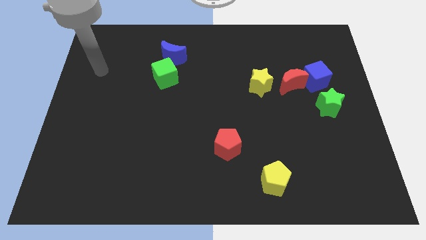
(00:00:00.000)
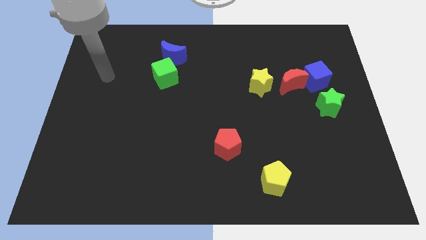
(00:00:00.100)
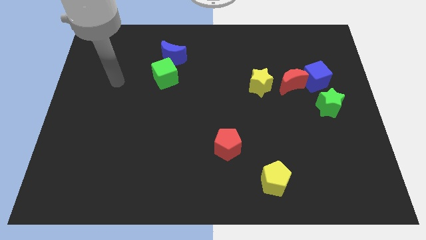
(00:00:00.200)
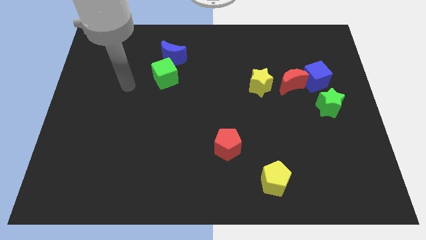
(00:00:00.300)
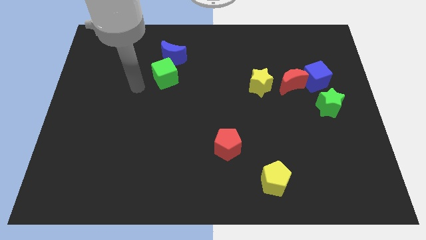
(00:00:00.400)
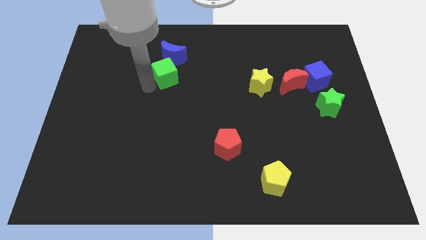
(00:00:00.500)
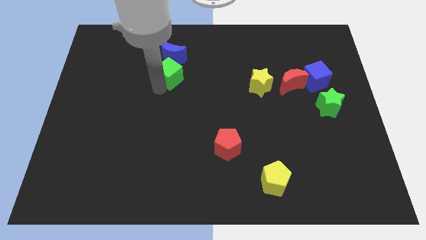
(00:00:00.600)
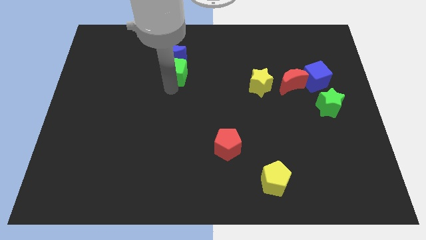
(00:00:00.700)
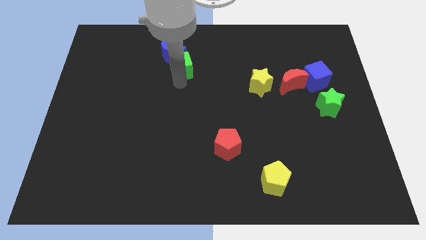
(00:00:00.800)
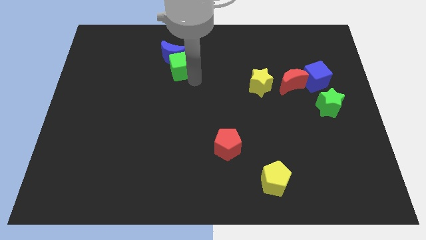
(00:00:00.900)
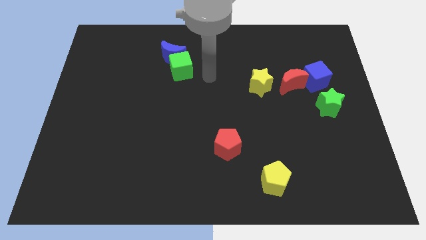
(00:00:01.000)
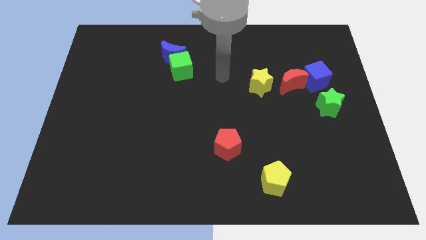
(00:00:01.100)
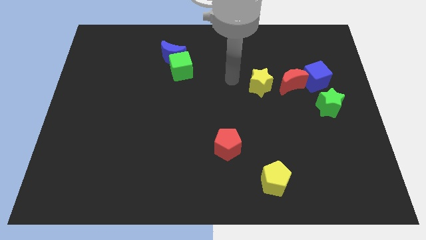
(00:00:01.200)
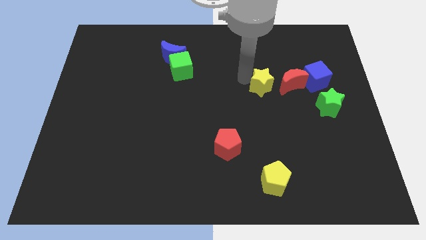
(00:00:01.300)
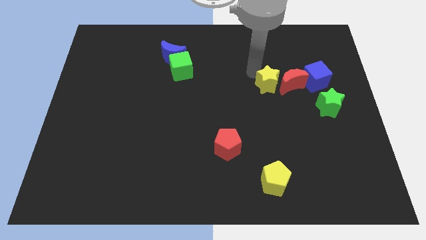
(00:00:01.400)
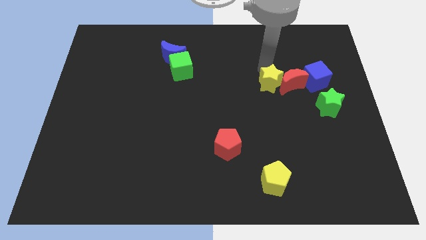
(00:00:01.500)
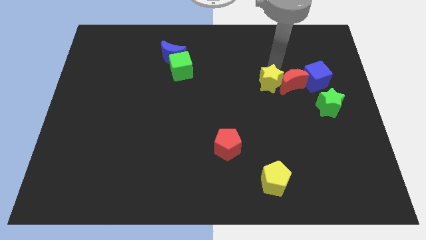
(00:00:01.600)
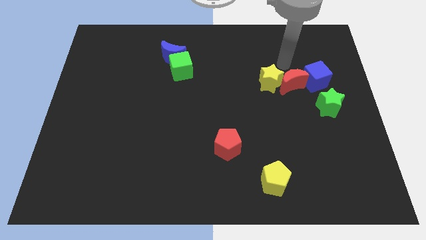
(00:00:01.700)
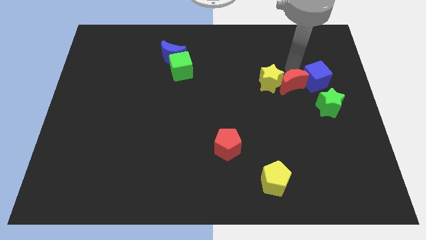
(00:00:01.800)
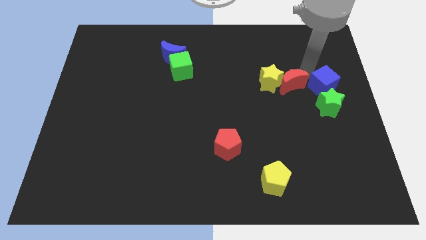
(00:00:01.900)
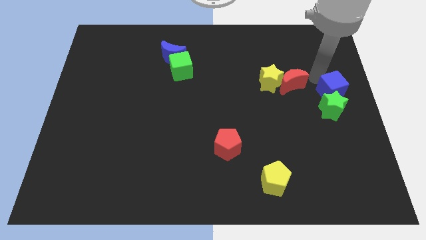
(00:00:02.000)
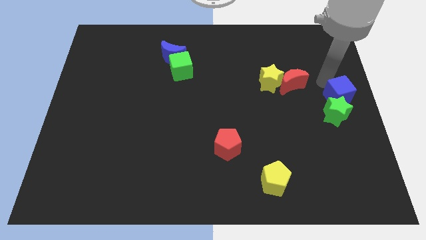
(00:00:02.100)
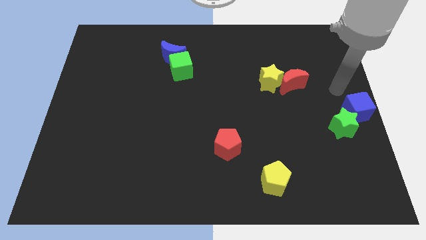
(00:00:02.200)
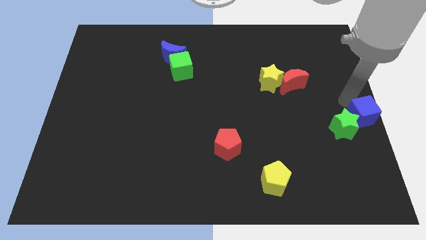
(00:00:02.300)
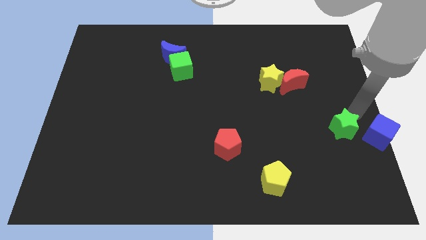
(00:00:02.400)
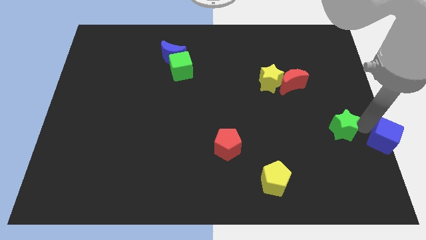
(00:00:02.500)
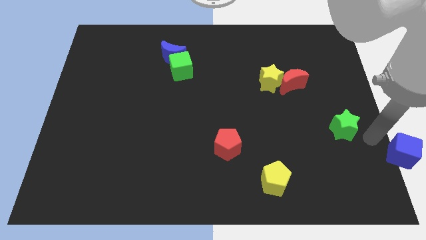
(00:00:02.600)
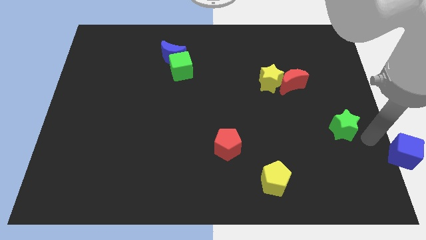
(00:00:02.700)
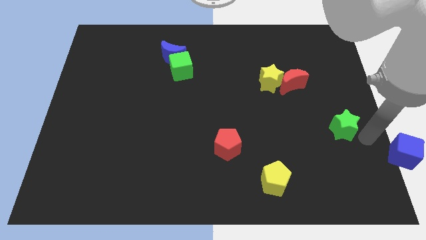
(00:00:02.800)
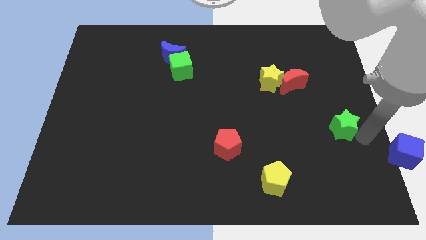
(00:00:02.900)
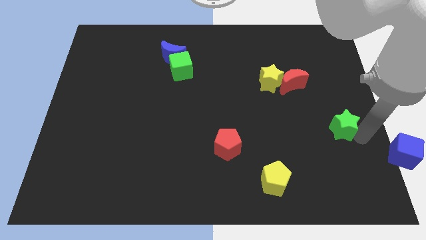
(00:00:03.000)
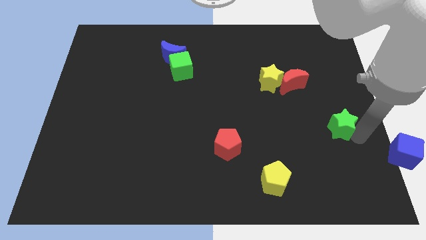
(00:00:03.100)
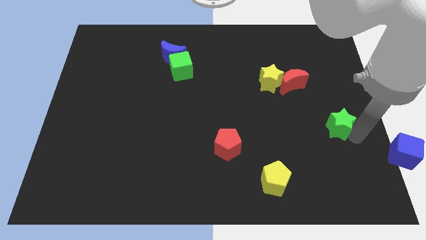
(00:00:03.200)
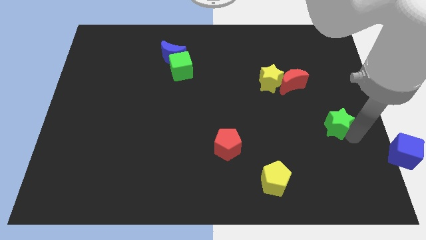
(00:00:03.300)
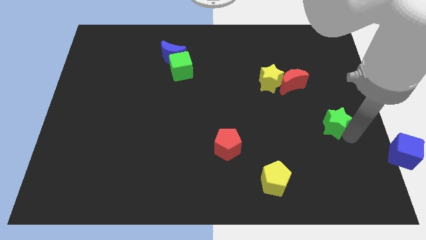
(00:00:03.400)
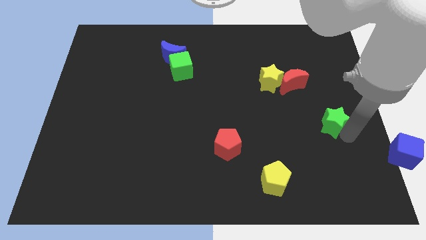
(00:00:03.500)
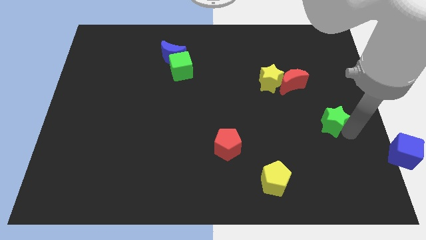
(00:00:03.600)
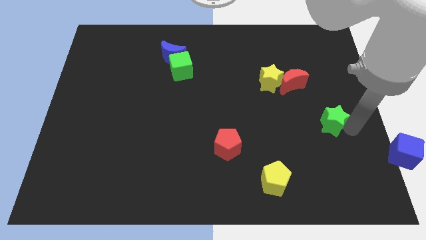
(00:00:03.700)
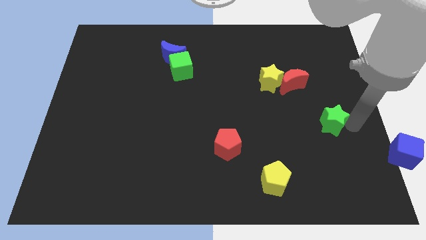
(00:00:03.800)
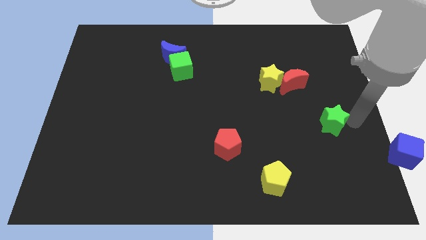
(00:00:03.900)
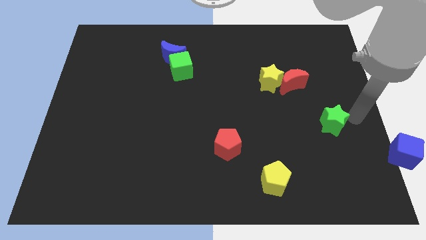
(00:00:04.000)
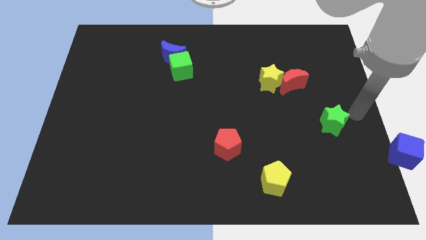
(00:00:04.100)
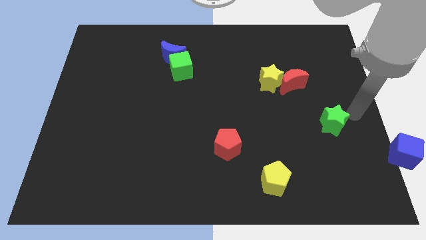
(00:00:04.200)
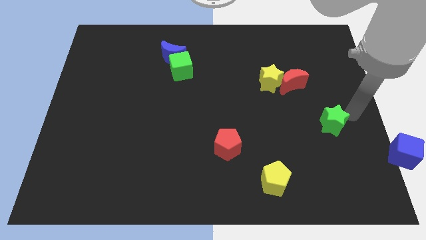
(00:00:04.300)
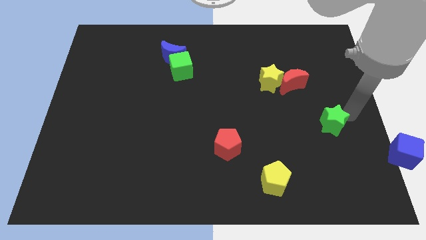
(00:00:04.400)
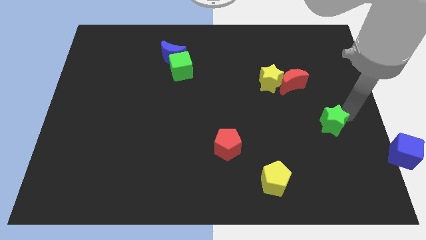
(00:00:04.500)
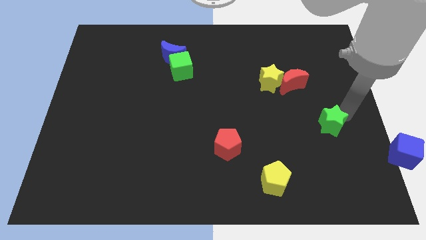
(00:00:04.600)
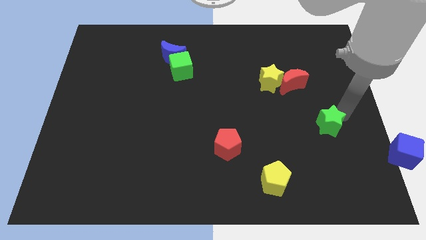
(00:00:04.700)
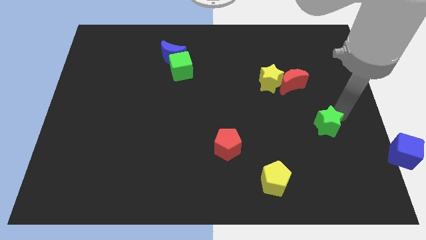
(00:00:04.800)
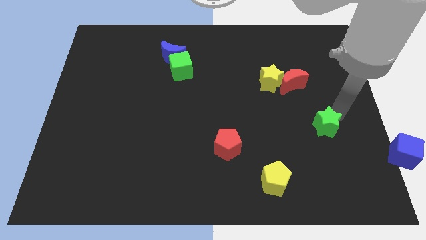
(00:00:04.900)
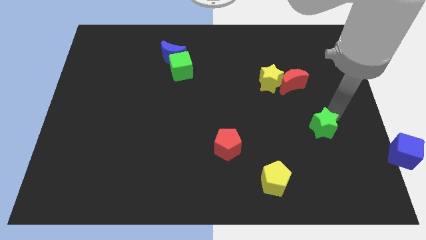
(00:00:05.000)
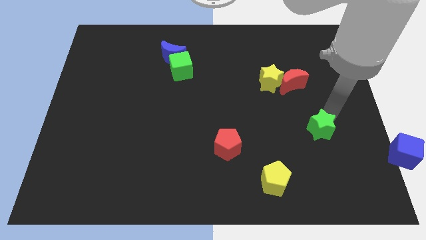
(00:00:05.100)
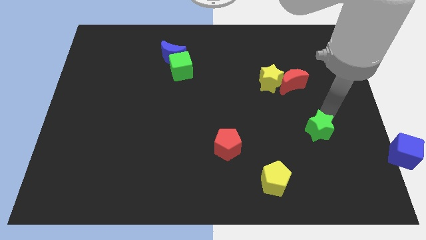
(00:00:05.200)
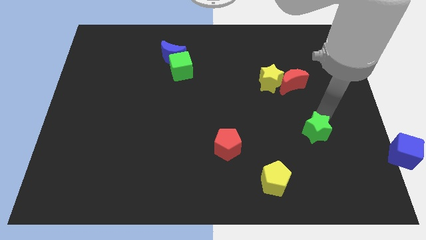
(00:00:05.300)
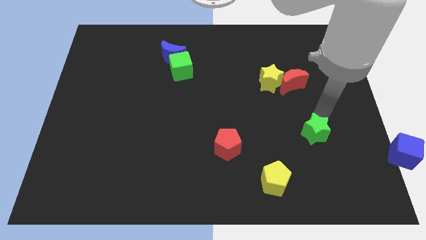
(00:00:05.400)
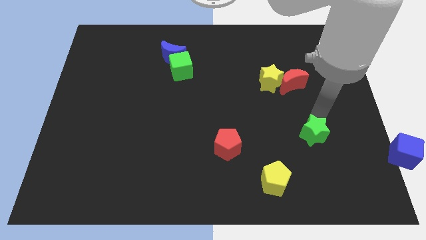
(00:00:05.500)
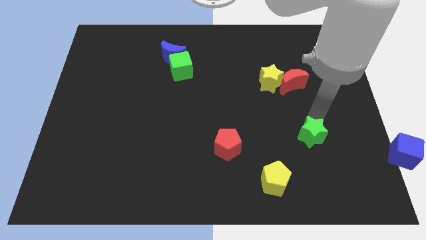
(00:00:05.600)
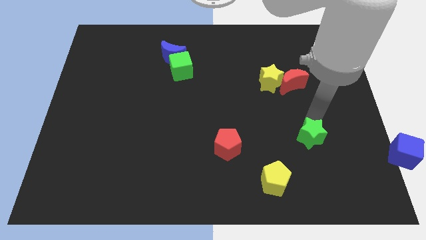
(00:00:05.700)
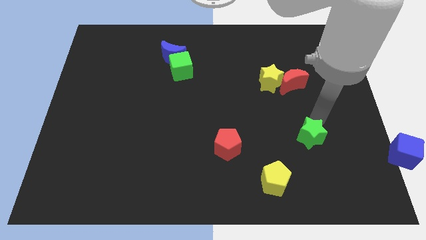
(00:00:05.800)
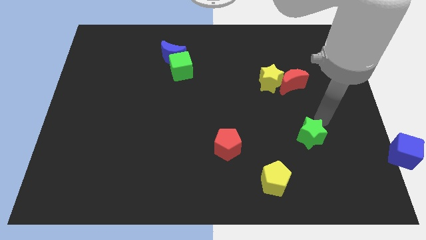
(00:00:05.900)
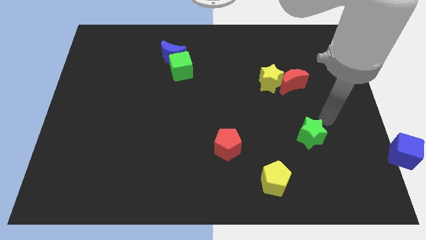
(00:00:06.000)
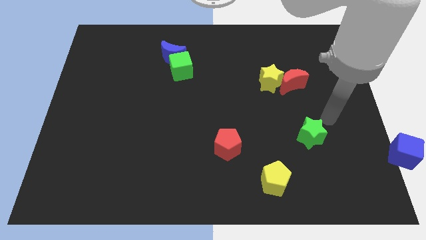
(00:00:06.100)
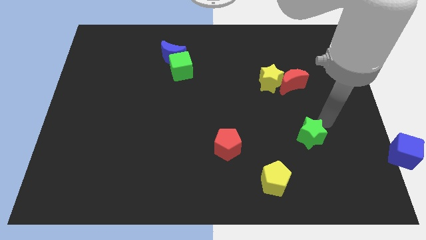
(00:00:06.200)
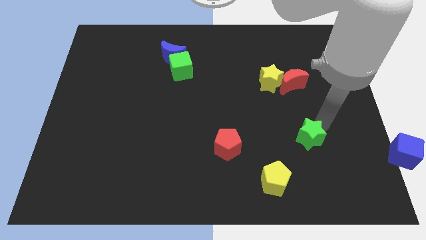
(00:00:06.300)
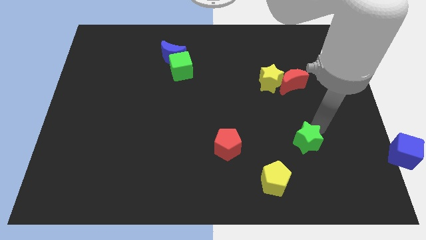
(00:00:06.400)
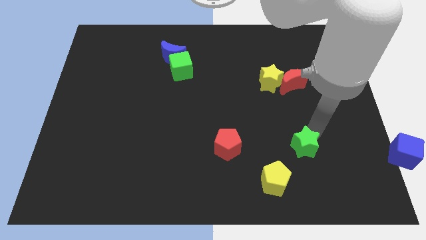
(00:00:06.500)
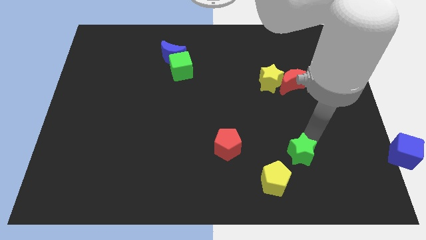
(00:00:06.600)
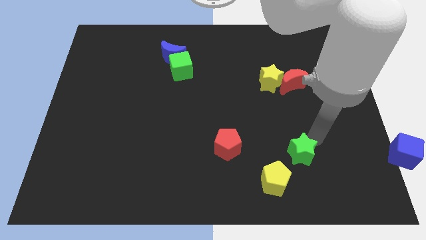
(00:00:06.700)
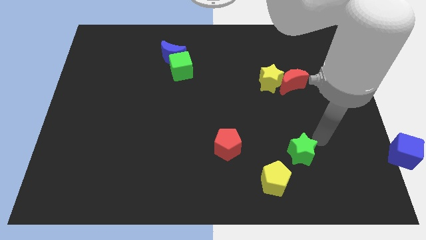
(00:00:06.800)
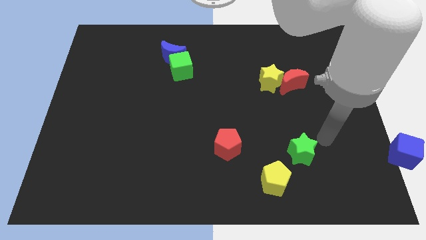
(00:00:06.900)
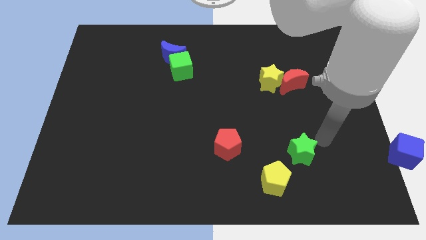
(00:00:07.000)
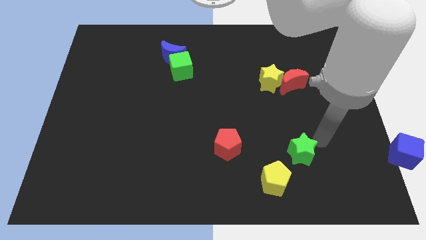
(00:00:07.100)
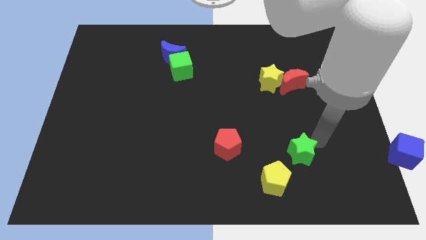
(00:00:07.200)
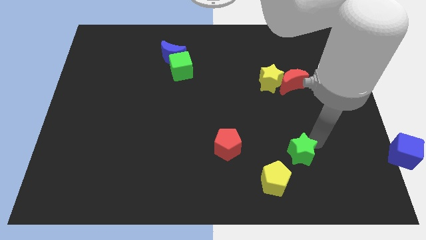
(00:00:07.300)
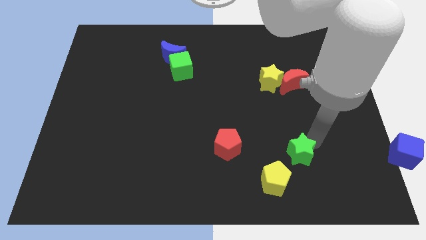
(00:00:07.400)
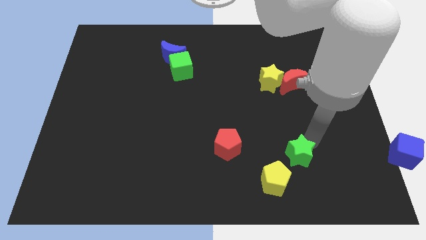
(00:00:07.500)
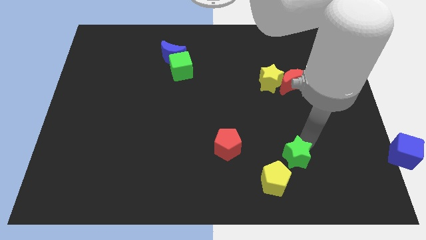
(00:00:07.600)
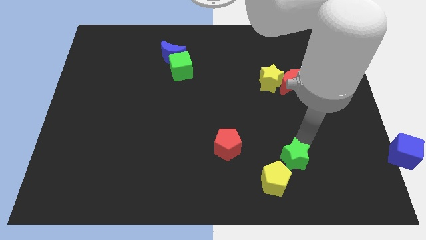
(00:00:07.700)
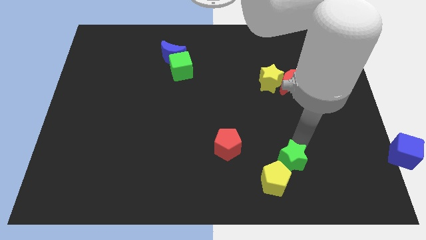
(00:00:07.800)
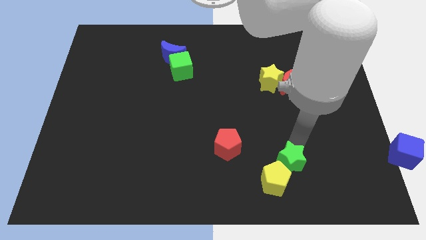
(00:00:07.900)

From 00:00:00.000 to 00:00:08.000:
put the green star towards the yellow pentagon
